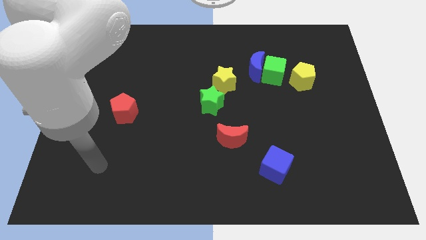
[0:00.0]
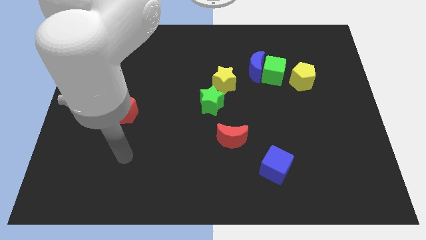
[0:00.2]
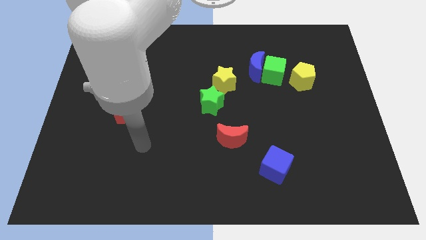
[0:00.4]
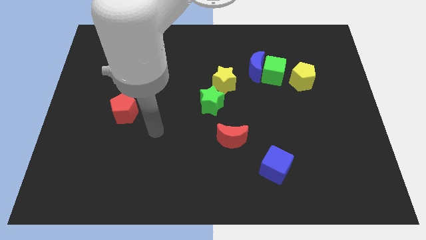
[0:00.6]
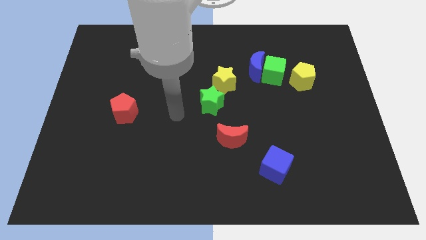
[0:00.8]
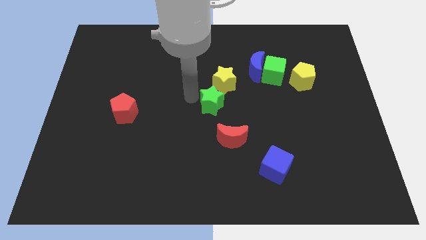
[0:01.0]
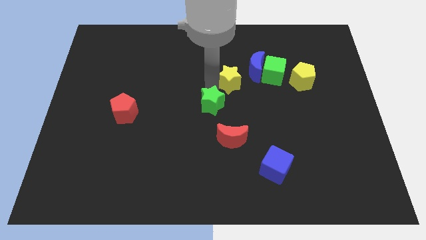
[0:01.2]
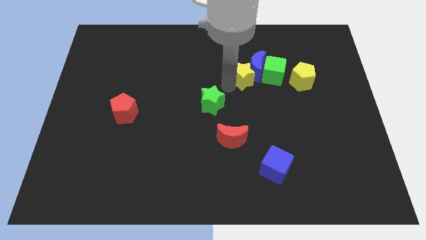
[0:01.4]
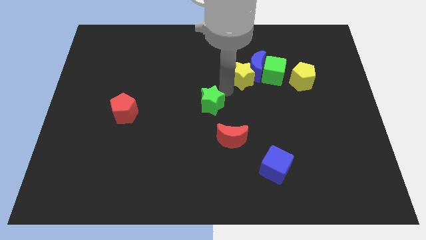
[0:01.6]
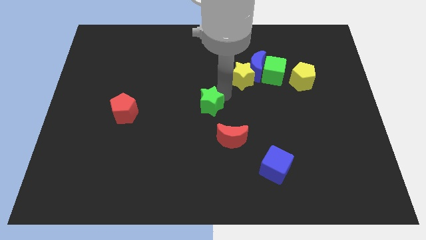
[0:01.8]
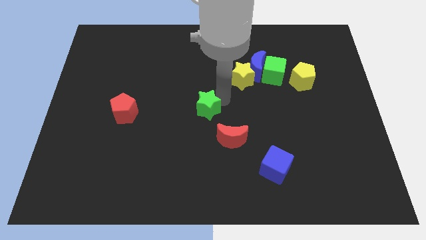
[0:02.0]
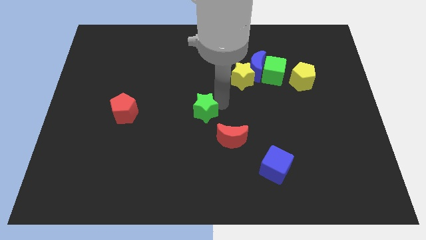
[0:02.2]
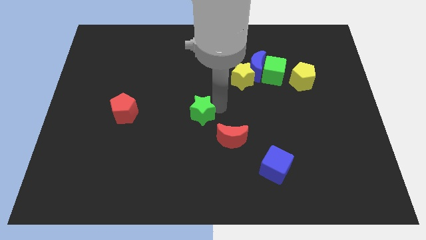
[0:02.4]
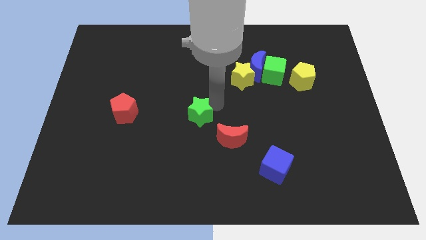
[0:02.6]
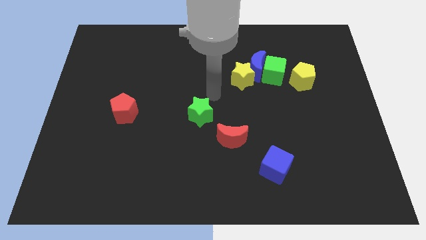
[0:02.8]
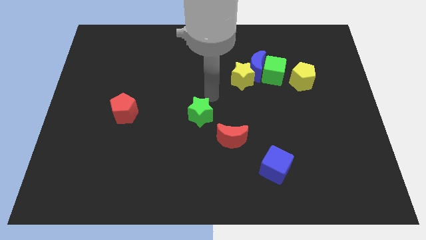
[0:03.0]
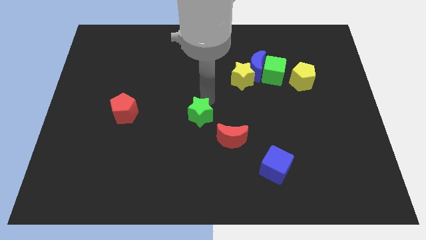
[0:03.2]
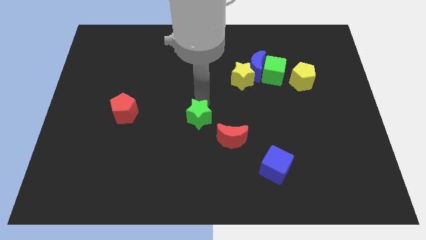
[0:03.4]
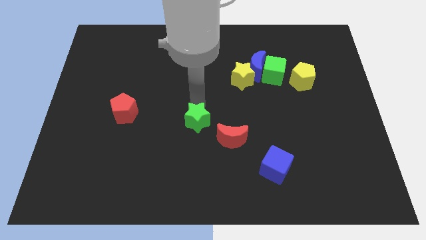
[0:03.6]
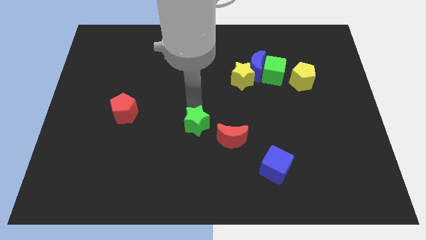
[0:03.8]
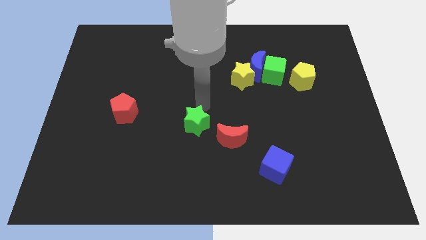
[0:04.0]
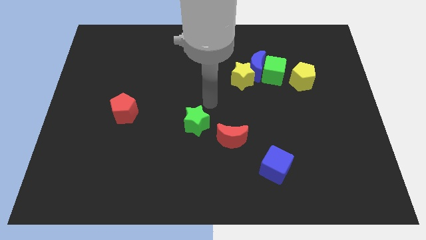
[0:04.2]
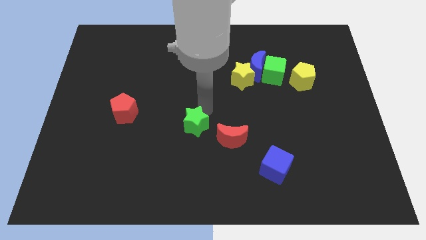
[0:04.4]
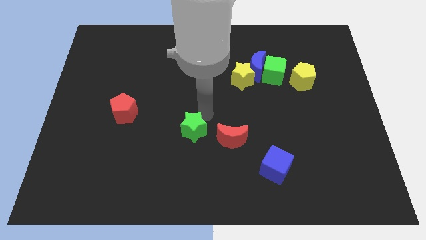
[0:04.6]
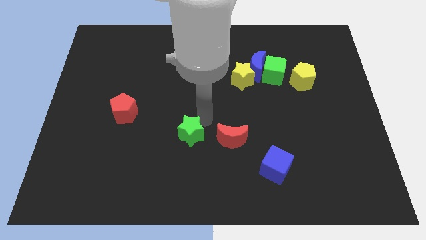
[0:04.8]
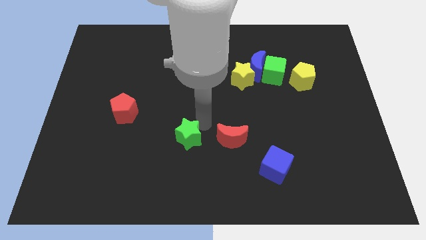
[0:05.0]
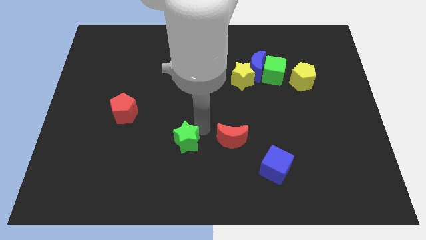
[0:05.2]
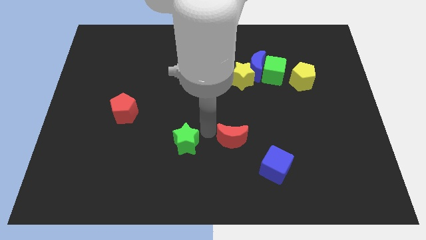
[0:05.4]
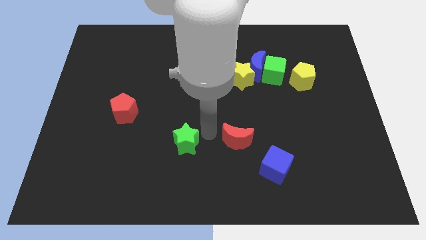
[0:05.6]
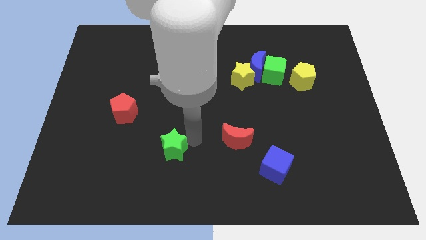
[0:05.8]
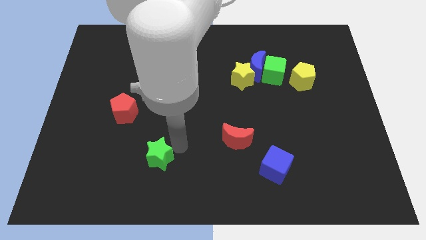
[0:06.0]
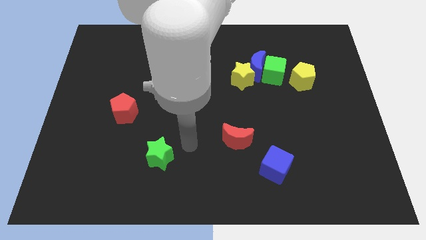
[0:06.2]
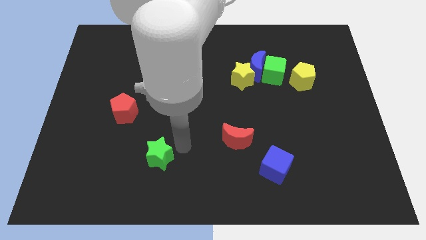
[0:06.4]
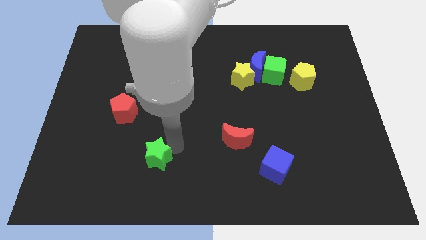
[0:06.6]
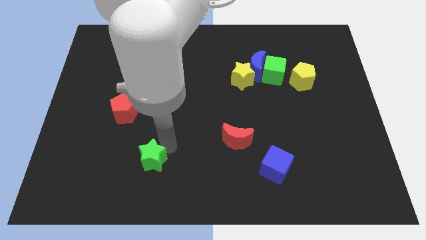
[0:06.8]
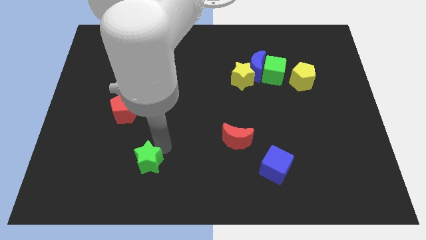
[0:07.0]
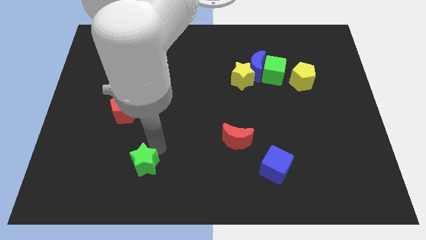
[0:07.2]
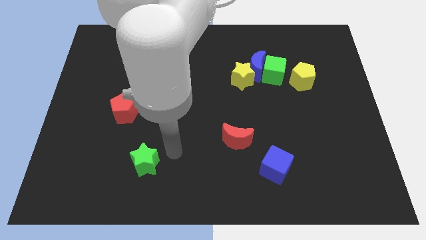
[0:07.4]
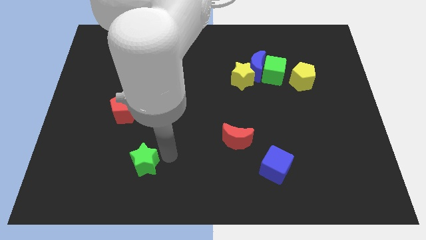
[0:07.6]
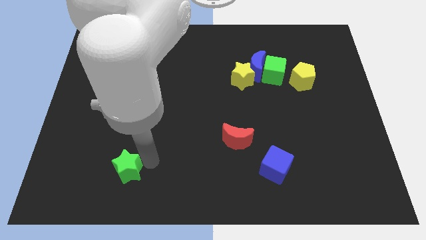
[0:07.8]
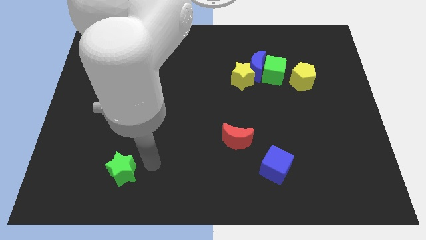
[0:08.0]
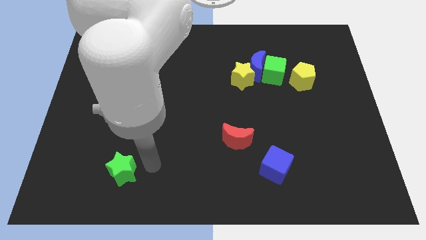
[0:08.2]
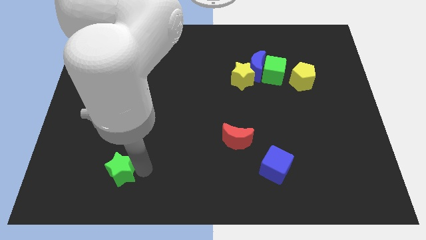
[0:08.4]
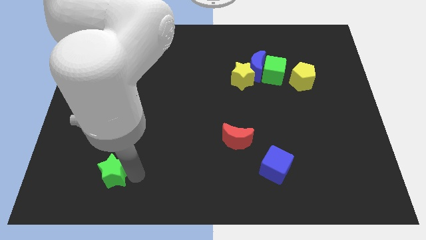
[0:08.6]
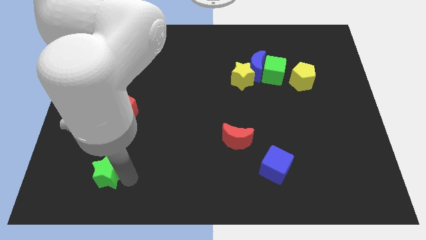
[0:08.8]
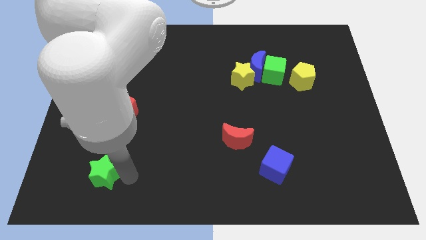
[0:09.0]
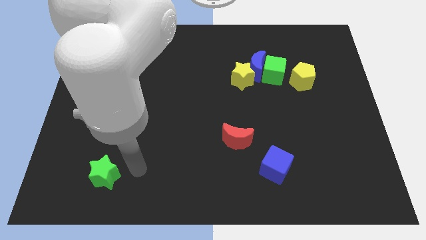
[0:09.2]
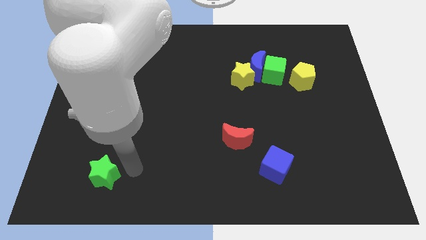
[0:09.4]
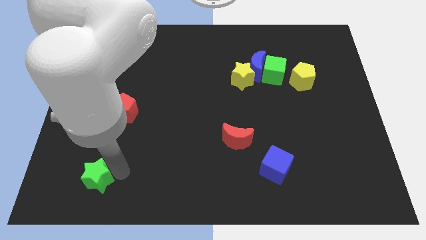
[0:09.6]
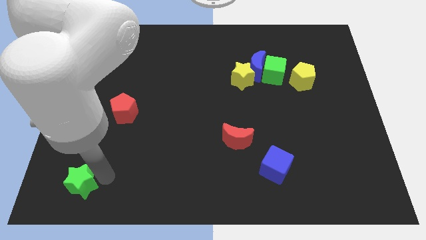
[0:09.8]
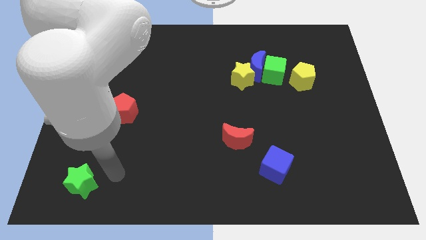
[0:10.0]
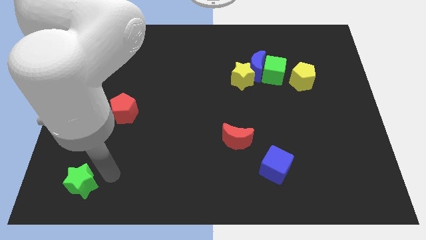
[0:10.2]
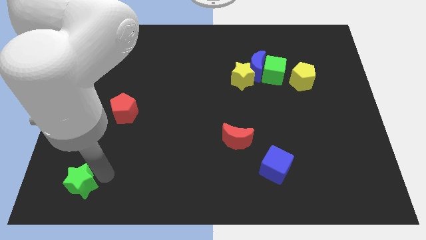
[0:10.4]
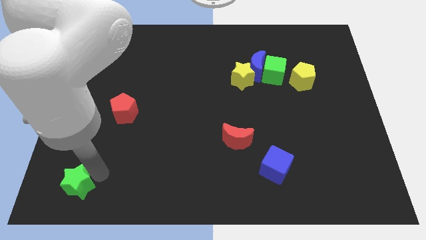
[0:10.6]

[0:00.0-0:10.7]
put the green star to the bottom left of the board

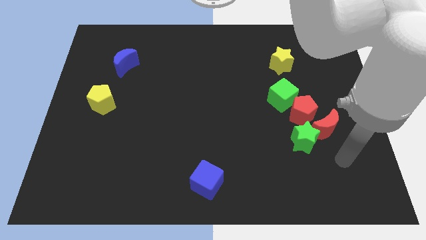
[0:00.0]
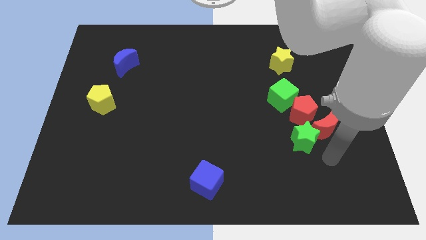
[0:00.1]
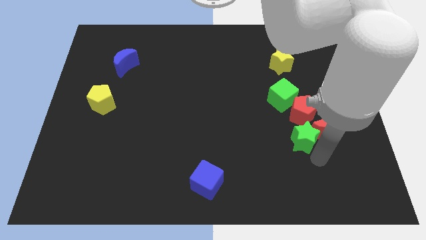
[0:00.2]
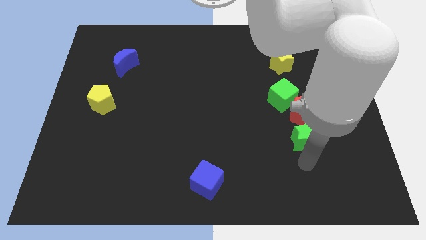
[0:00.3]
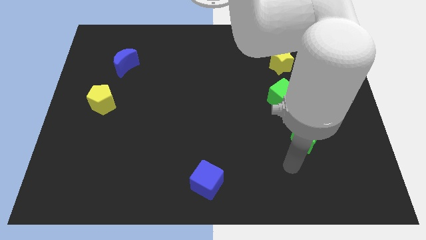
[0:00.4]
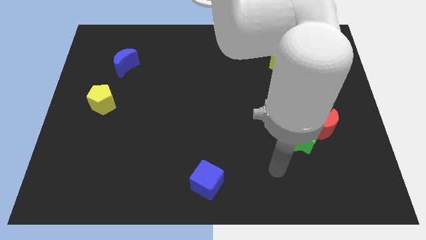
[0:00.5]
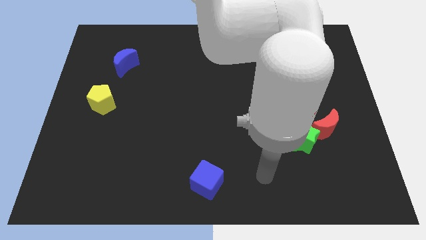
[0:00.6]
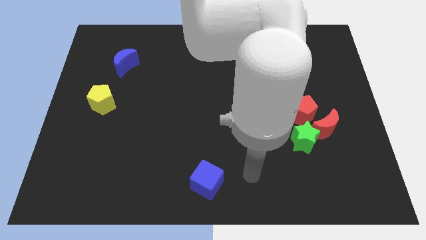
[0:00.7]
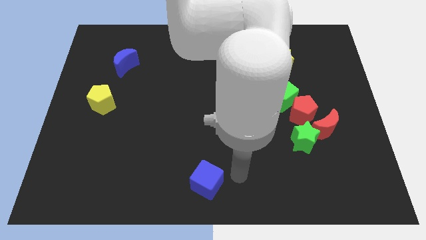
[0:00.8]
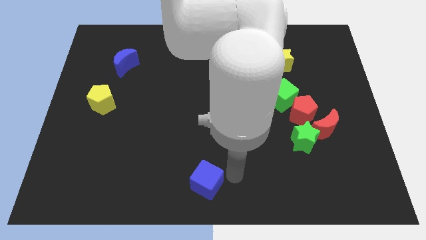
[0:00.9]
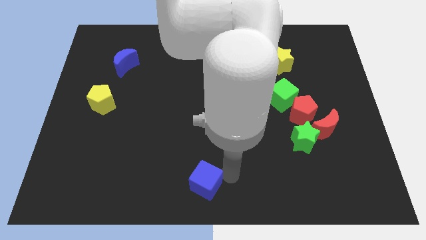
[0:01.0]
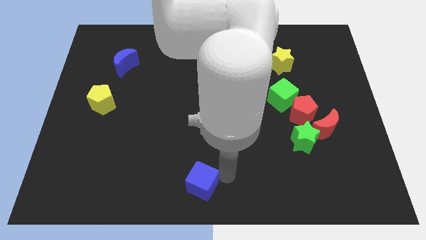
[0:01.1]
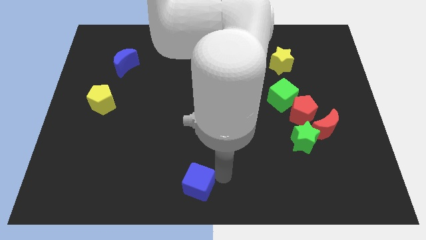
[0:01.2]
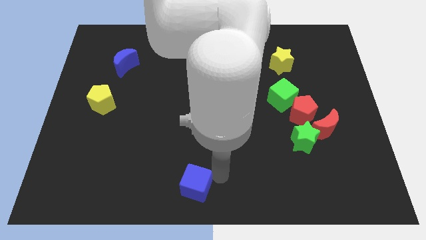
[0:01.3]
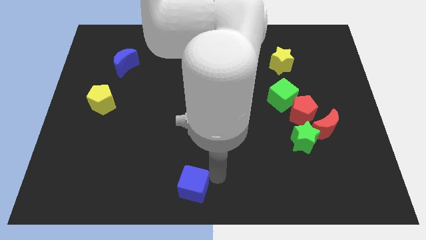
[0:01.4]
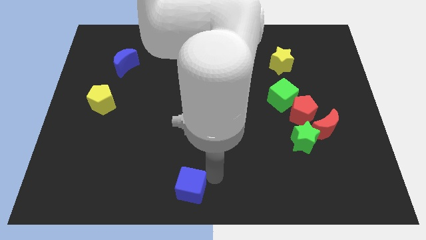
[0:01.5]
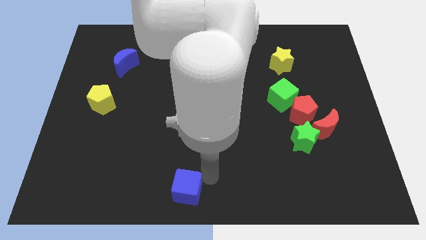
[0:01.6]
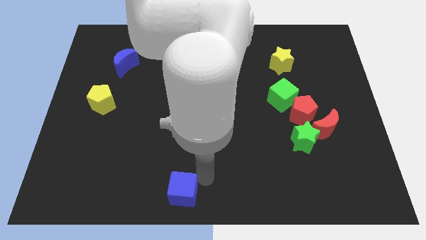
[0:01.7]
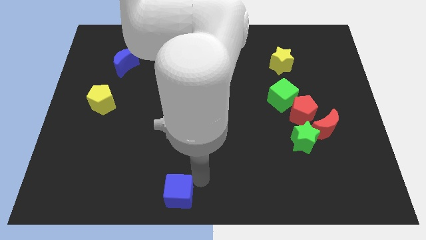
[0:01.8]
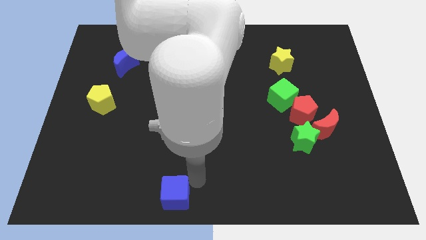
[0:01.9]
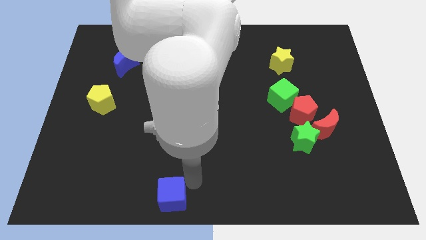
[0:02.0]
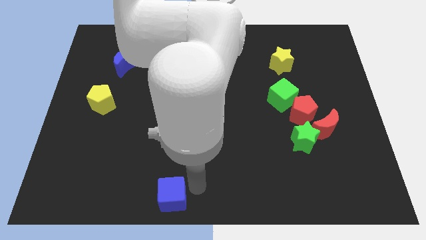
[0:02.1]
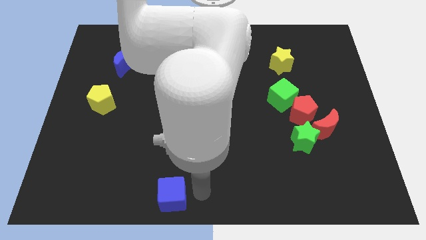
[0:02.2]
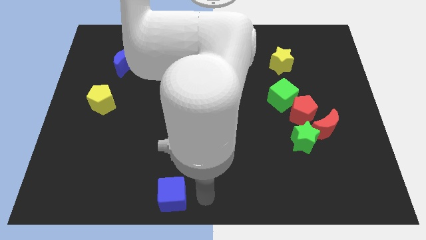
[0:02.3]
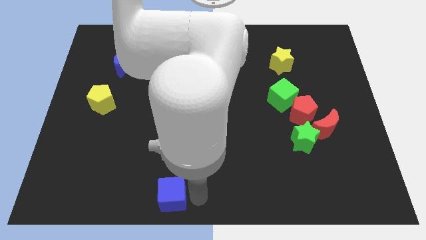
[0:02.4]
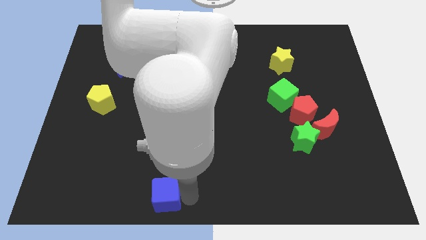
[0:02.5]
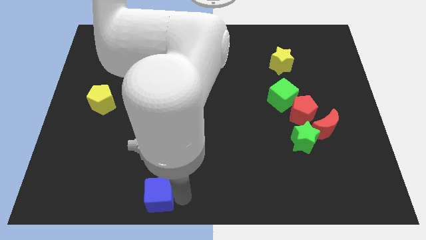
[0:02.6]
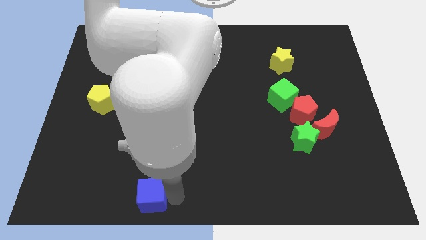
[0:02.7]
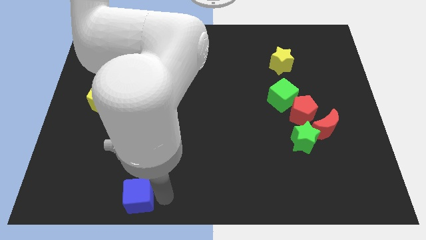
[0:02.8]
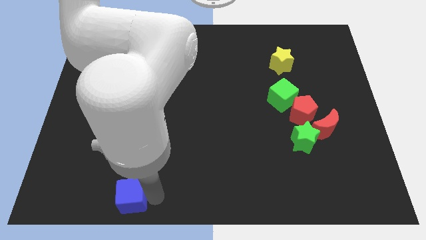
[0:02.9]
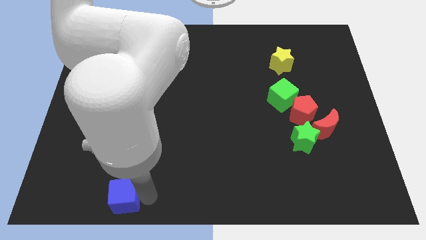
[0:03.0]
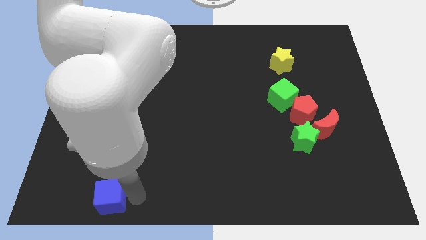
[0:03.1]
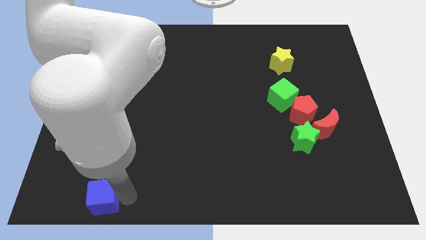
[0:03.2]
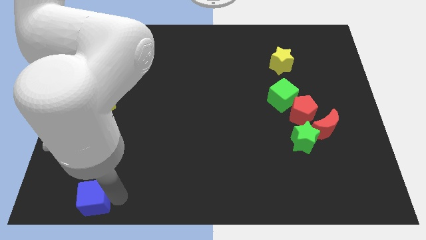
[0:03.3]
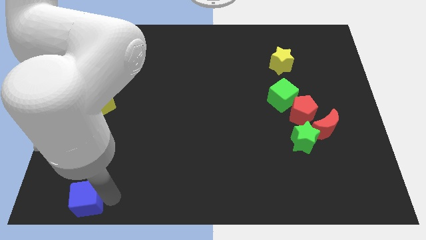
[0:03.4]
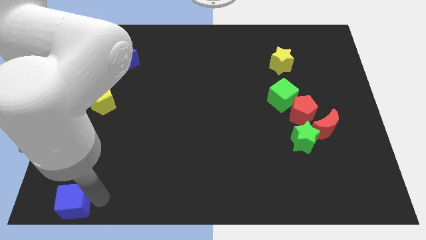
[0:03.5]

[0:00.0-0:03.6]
put the blue cube to the lower left corner
